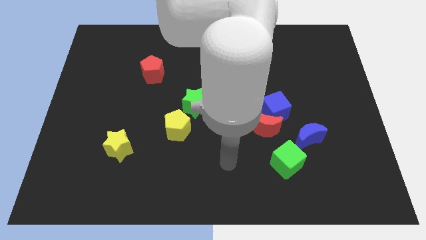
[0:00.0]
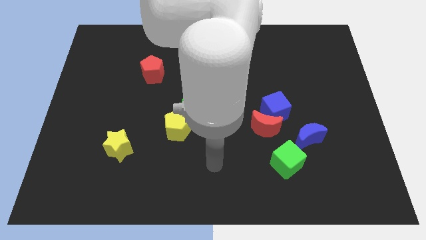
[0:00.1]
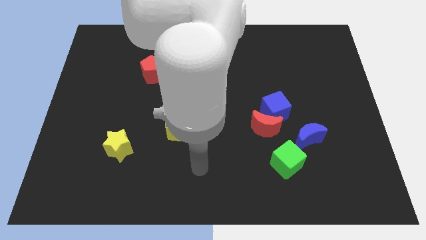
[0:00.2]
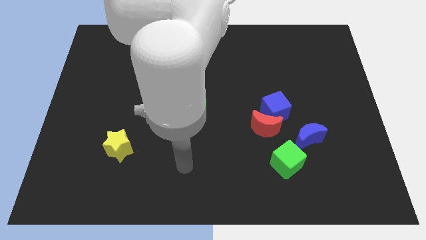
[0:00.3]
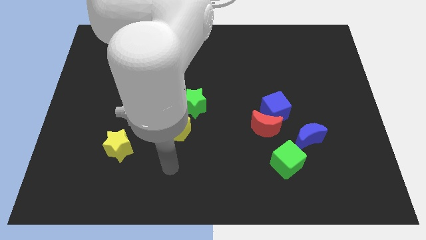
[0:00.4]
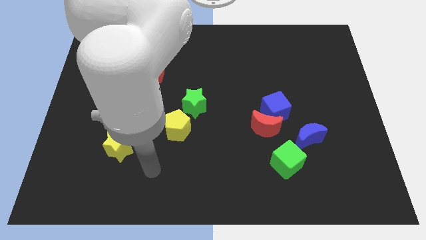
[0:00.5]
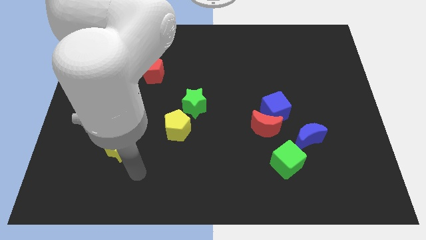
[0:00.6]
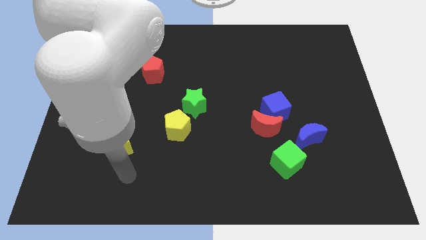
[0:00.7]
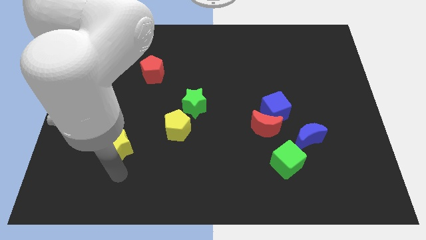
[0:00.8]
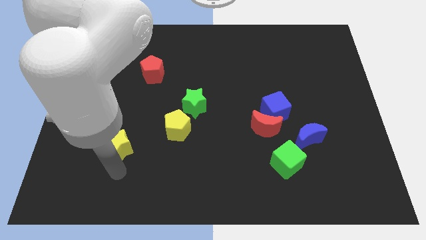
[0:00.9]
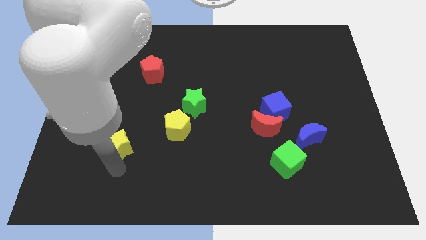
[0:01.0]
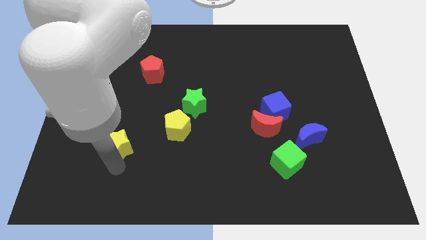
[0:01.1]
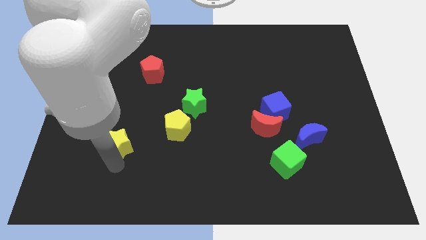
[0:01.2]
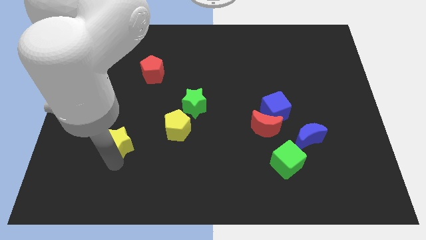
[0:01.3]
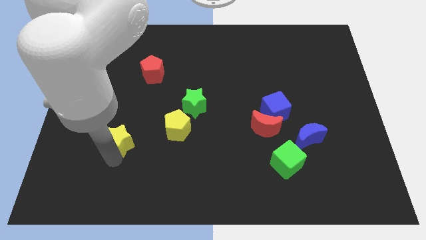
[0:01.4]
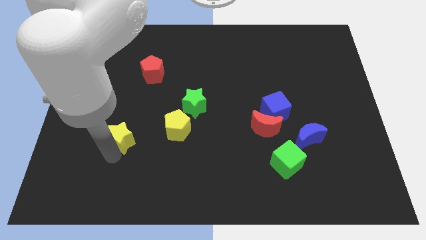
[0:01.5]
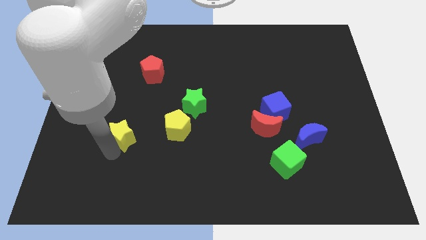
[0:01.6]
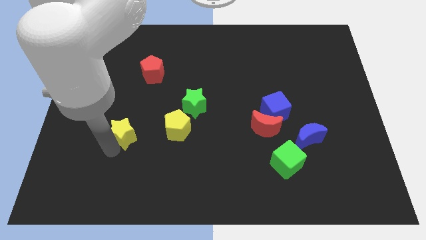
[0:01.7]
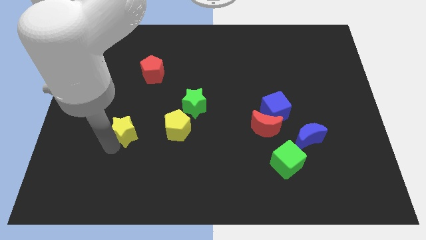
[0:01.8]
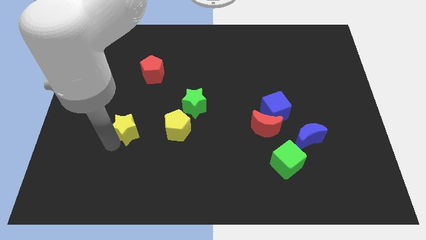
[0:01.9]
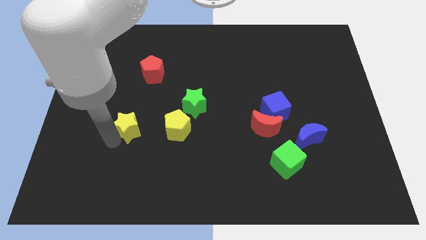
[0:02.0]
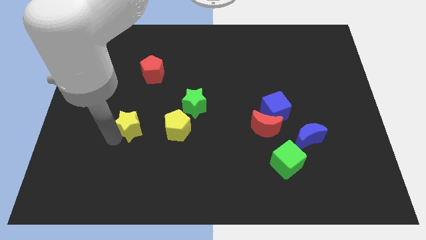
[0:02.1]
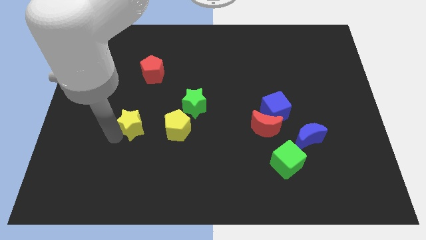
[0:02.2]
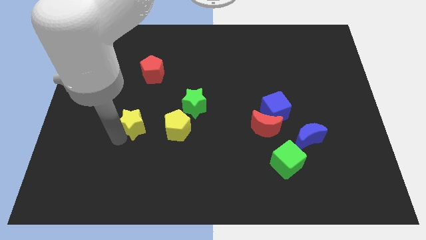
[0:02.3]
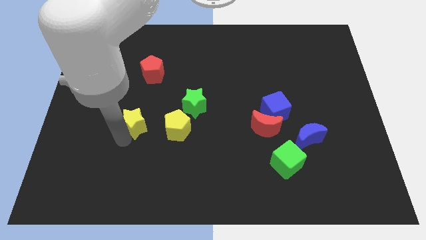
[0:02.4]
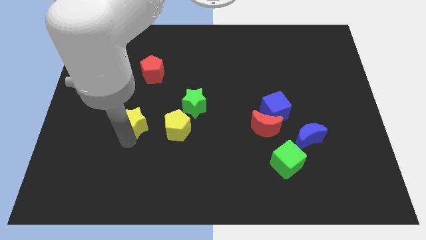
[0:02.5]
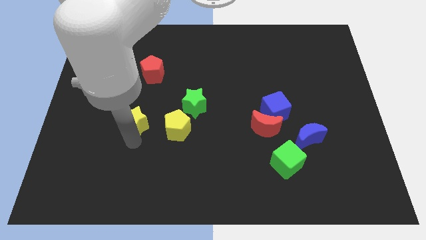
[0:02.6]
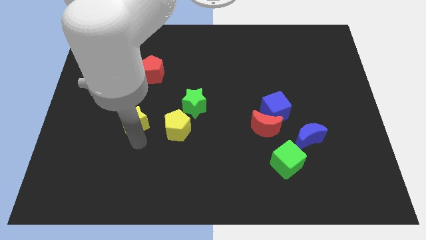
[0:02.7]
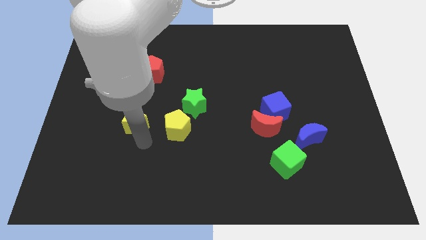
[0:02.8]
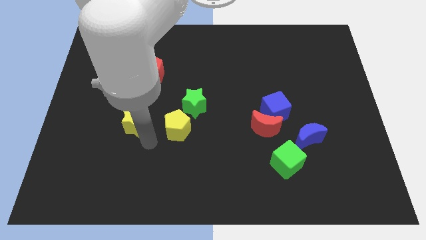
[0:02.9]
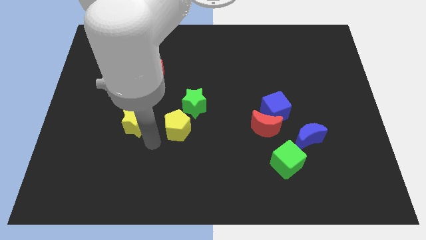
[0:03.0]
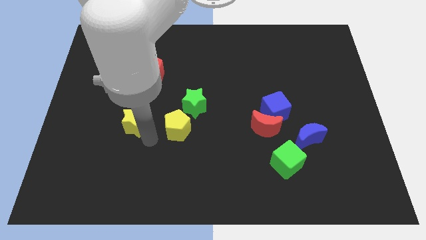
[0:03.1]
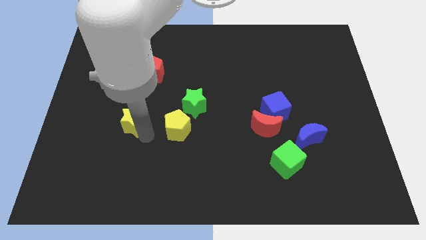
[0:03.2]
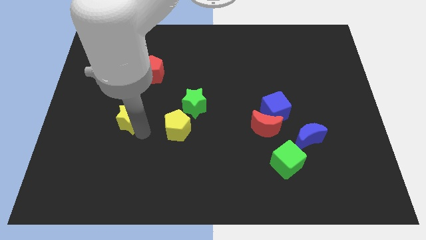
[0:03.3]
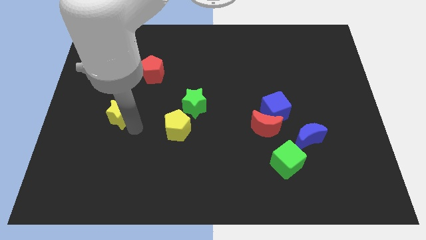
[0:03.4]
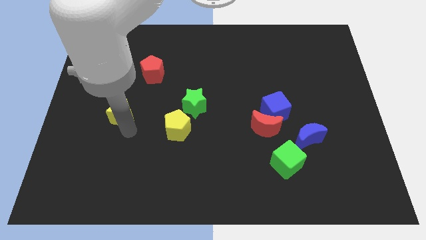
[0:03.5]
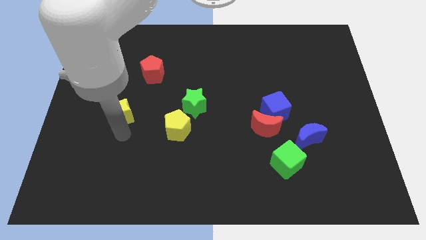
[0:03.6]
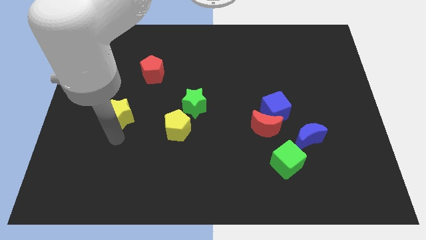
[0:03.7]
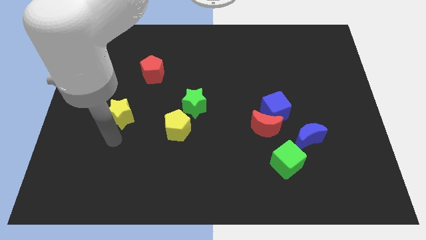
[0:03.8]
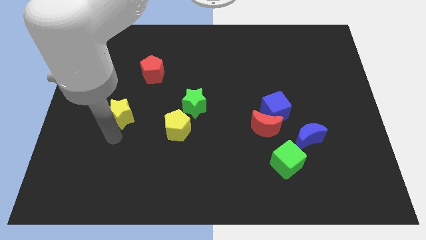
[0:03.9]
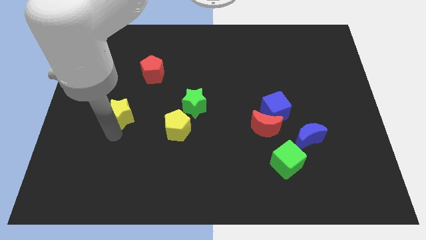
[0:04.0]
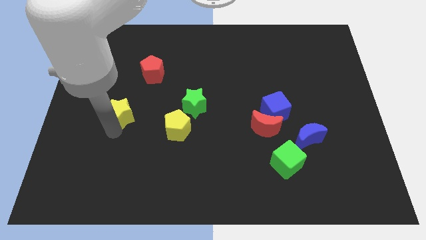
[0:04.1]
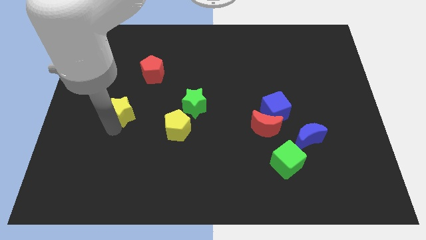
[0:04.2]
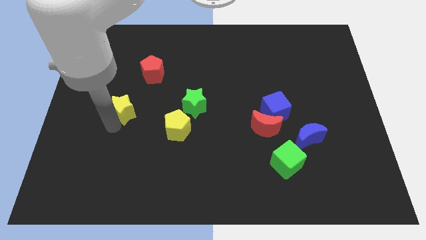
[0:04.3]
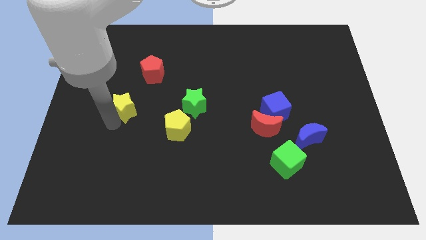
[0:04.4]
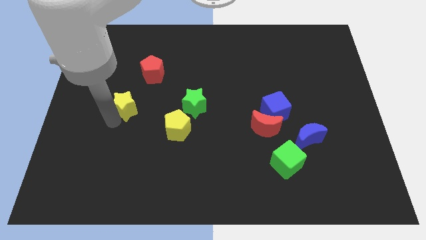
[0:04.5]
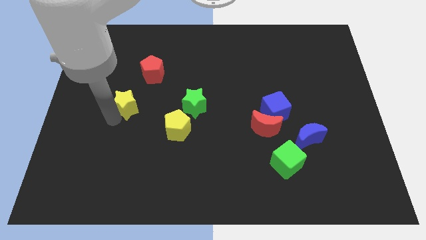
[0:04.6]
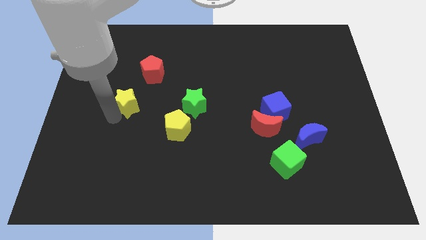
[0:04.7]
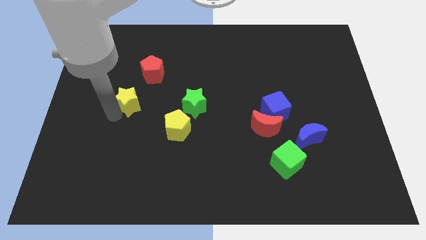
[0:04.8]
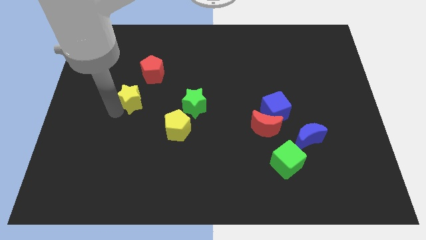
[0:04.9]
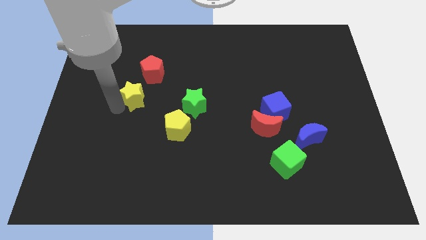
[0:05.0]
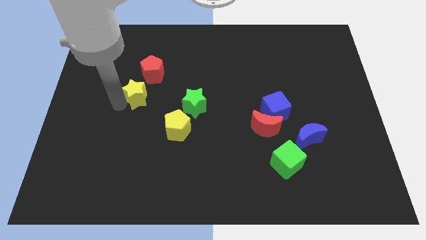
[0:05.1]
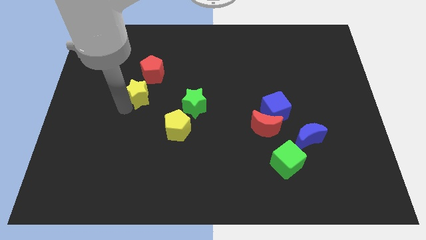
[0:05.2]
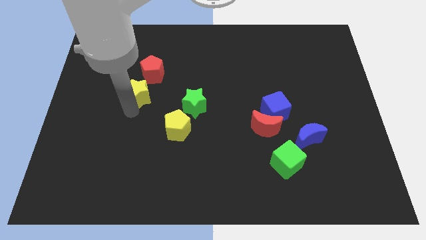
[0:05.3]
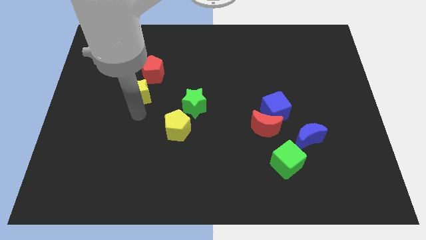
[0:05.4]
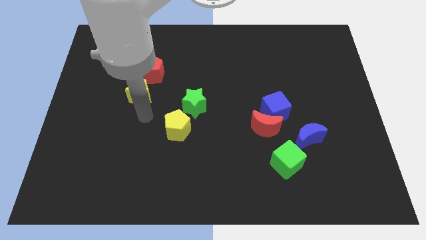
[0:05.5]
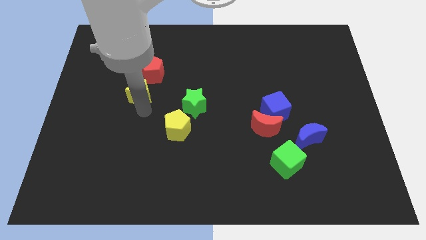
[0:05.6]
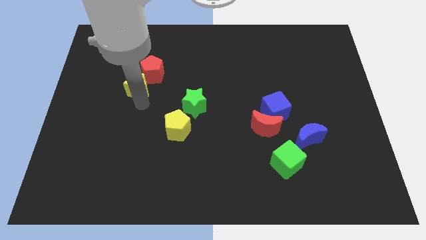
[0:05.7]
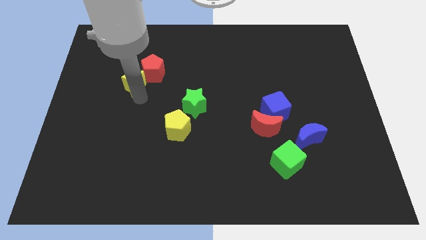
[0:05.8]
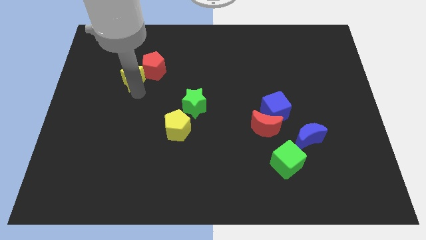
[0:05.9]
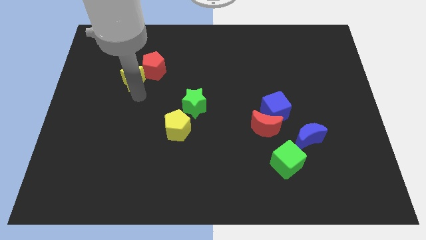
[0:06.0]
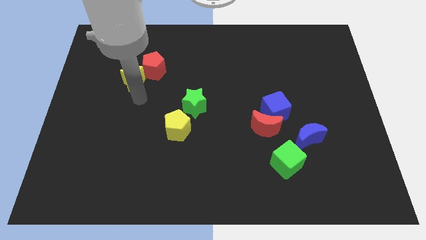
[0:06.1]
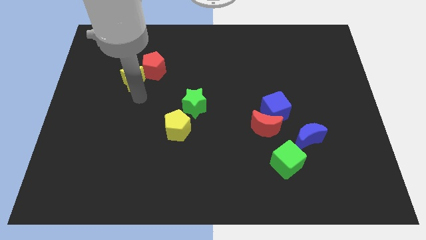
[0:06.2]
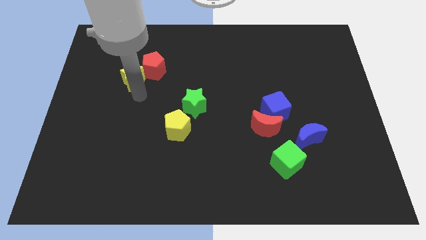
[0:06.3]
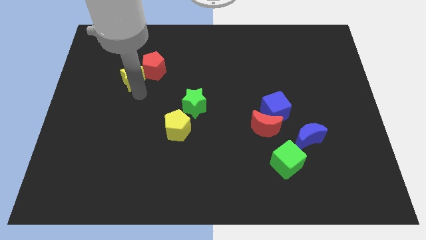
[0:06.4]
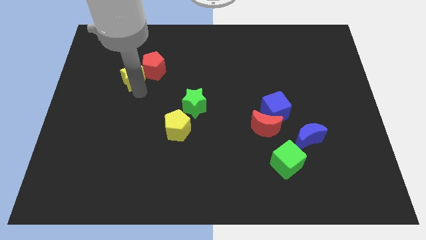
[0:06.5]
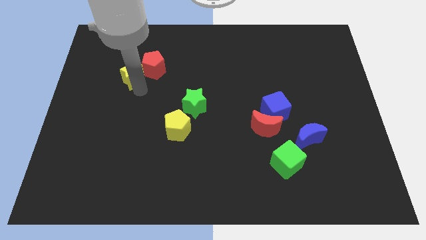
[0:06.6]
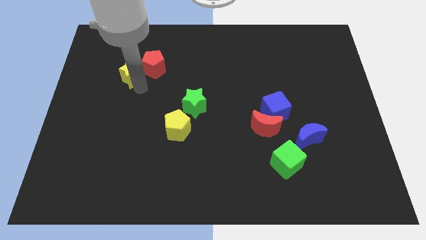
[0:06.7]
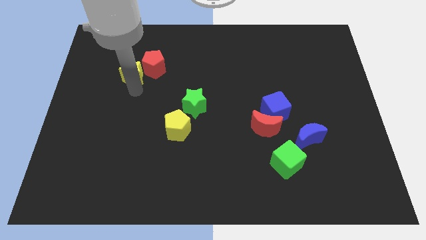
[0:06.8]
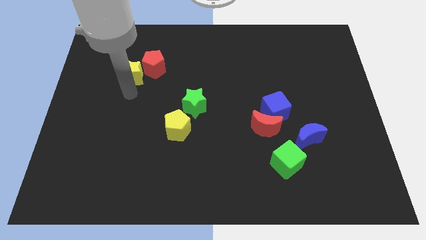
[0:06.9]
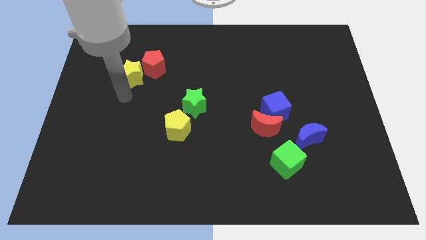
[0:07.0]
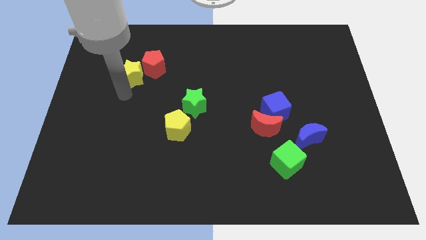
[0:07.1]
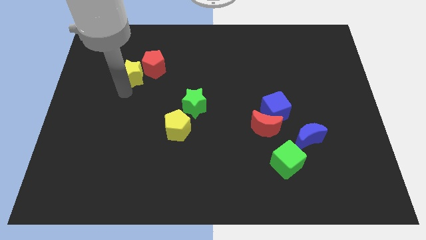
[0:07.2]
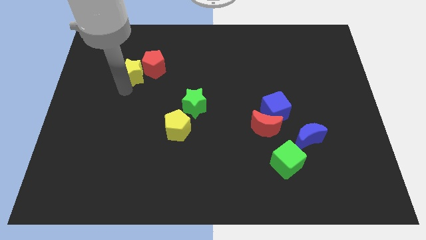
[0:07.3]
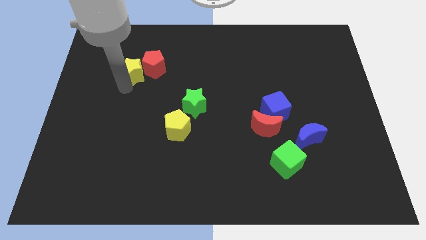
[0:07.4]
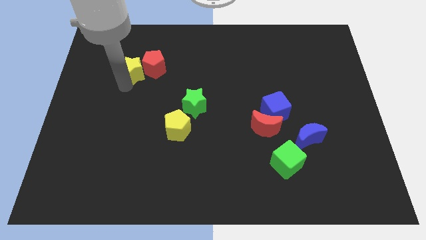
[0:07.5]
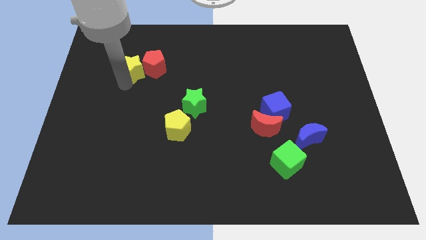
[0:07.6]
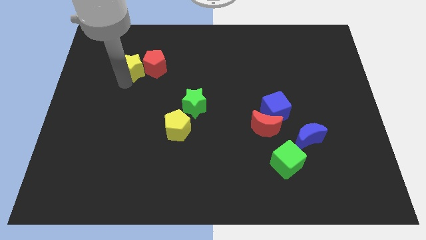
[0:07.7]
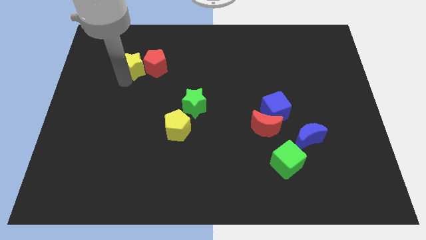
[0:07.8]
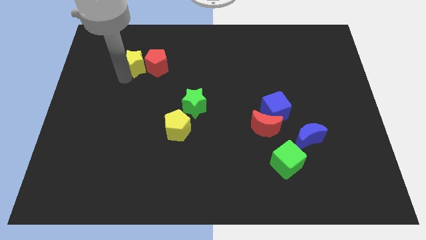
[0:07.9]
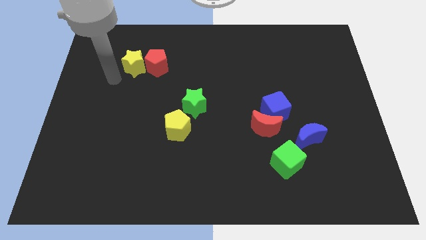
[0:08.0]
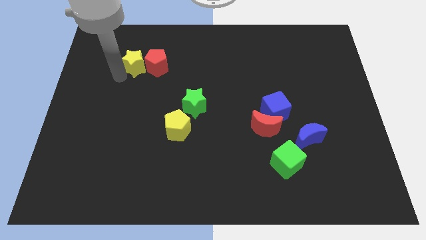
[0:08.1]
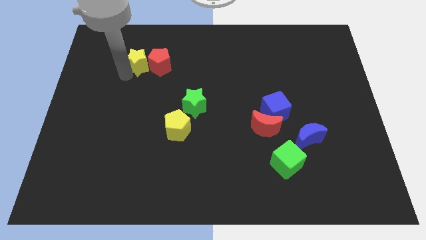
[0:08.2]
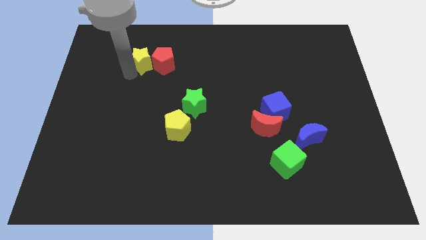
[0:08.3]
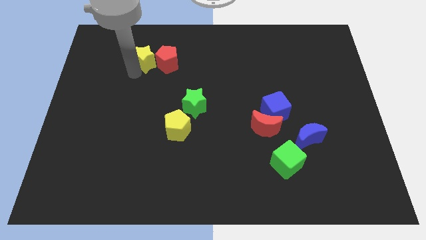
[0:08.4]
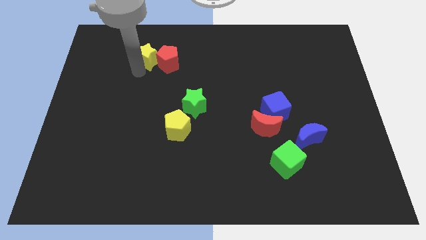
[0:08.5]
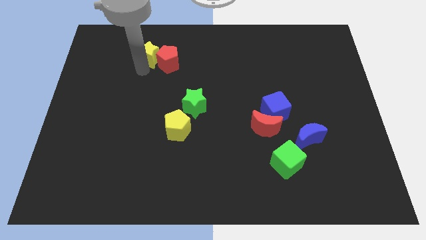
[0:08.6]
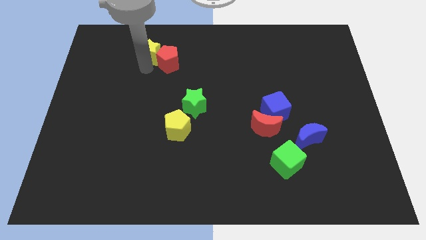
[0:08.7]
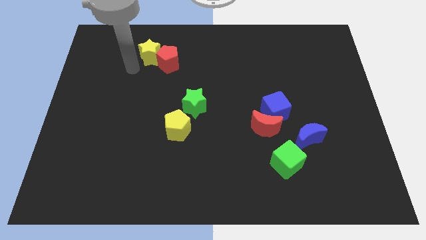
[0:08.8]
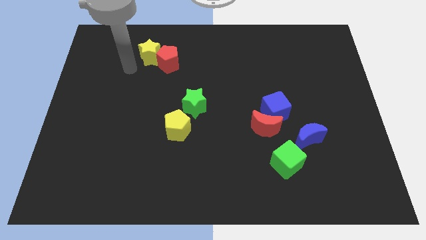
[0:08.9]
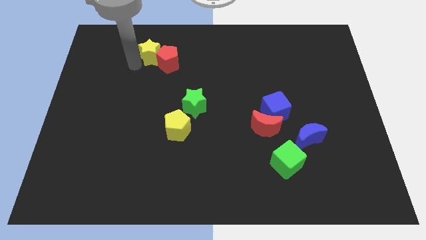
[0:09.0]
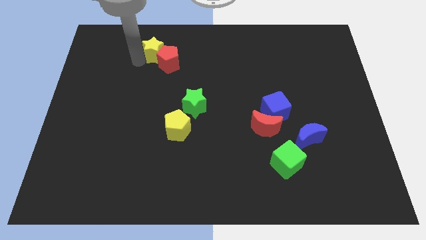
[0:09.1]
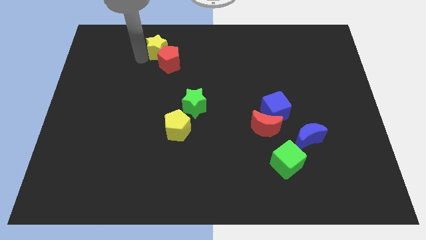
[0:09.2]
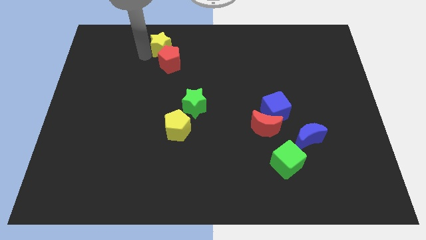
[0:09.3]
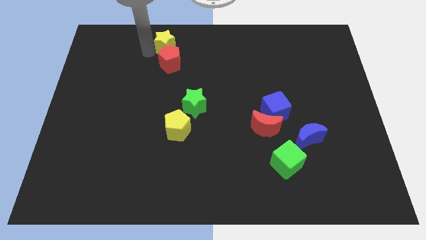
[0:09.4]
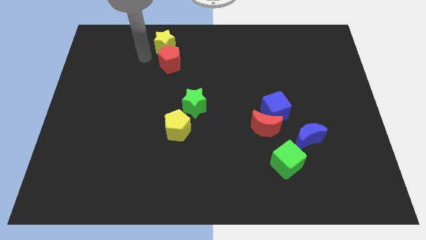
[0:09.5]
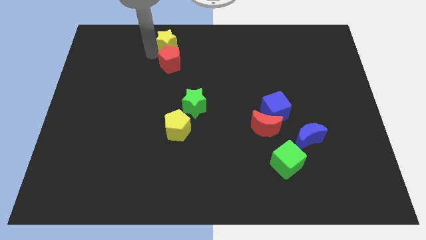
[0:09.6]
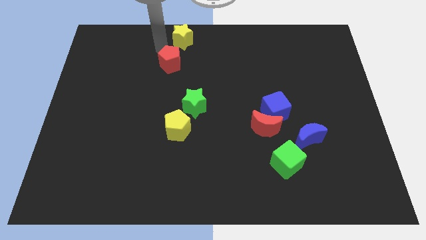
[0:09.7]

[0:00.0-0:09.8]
slide the yellow star to the top
